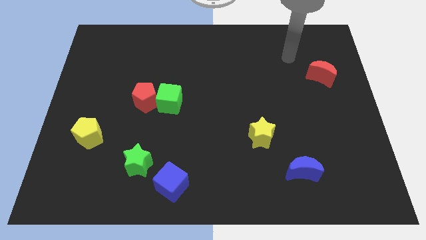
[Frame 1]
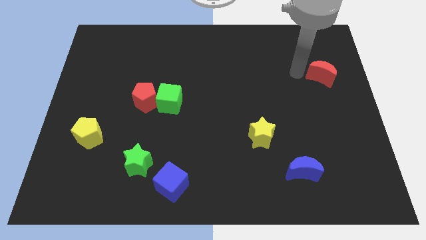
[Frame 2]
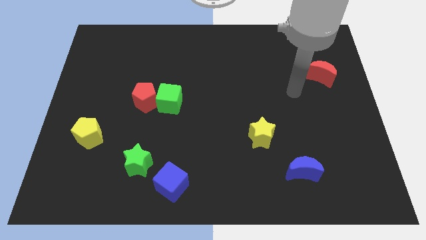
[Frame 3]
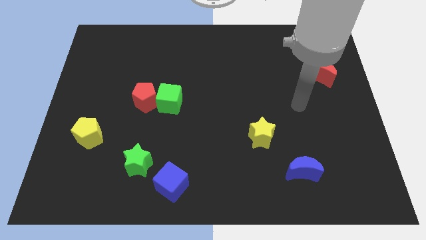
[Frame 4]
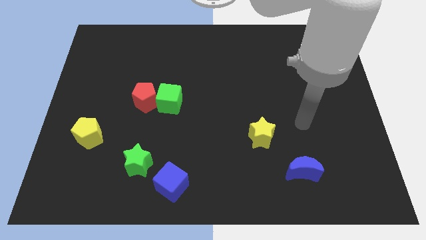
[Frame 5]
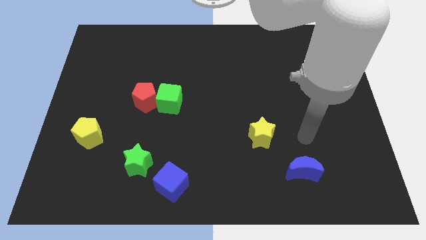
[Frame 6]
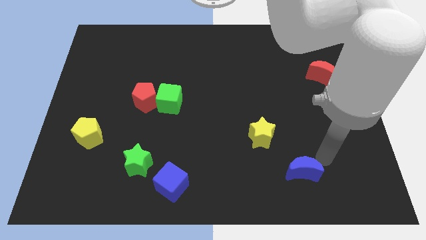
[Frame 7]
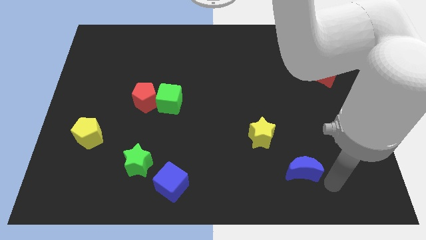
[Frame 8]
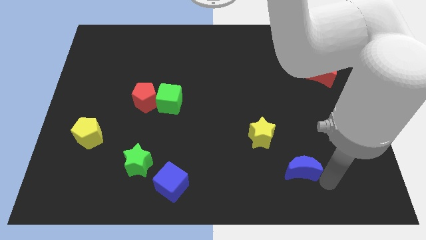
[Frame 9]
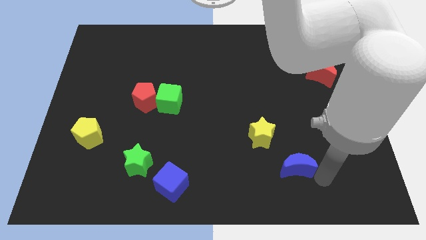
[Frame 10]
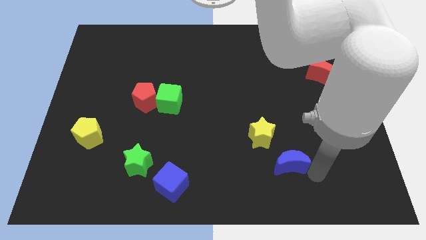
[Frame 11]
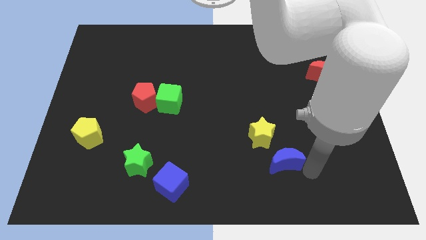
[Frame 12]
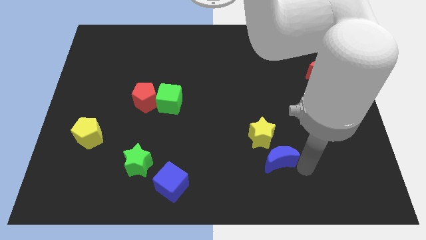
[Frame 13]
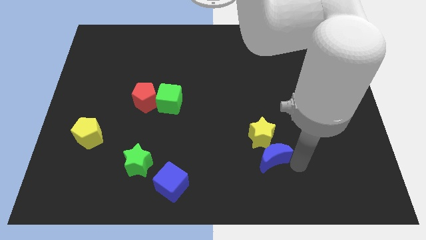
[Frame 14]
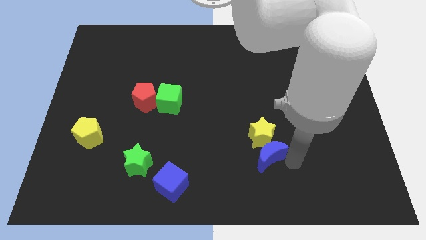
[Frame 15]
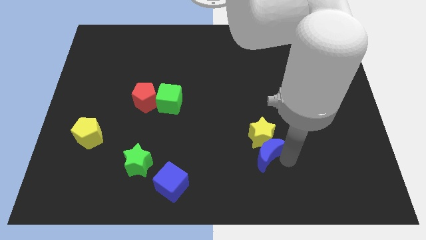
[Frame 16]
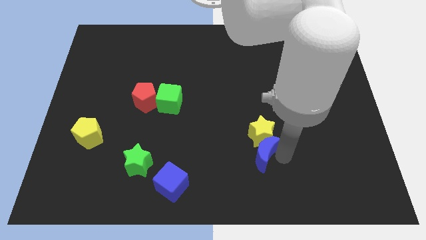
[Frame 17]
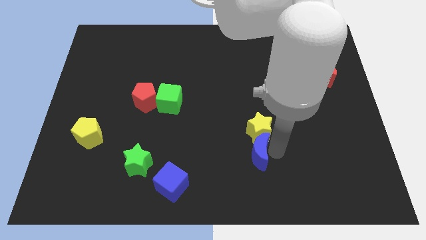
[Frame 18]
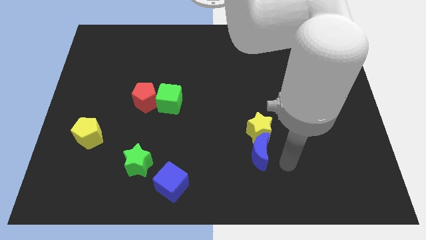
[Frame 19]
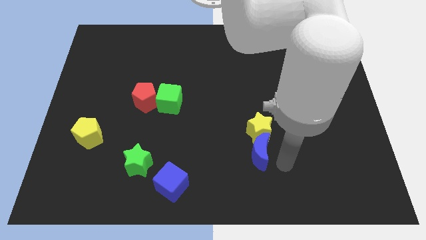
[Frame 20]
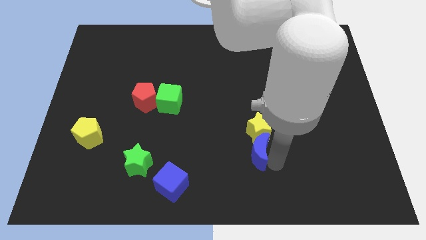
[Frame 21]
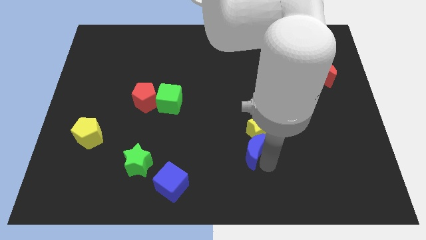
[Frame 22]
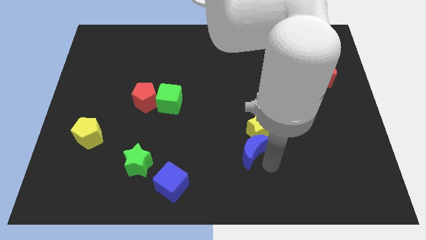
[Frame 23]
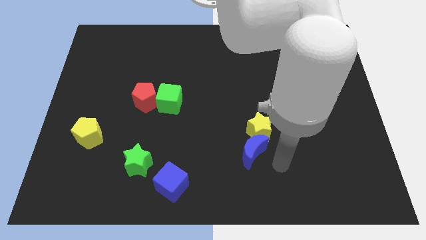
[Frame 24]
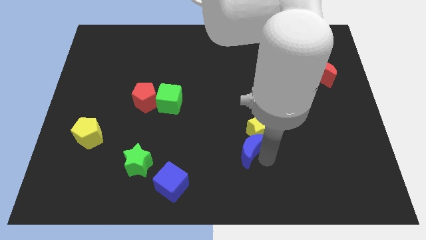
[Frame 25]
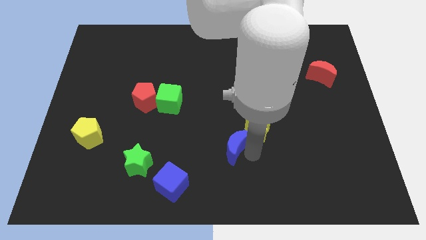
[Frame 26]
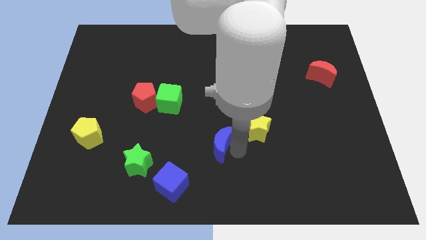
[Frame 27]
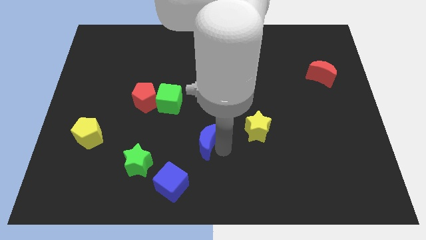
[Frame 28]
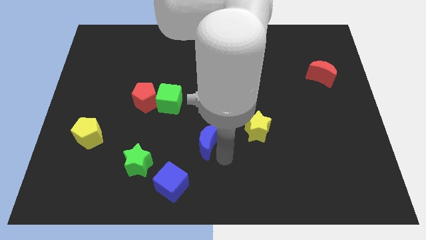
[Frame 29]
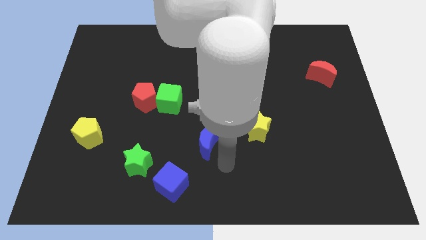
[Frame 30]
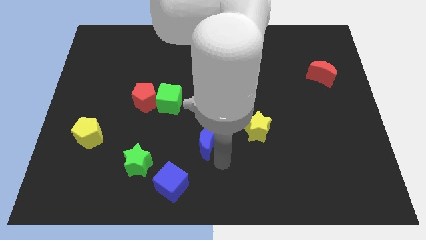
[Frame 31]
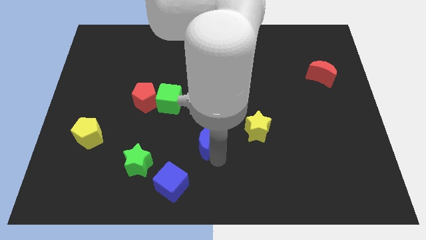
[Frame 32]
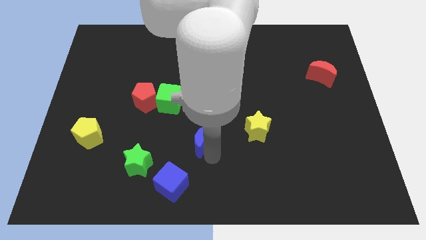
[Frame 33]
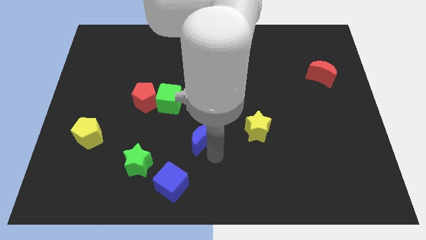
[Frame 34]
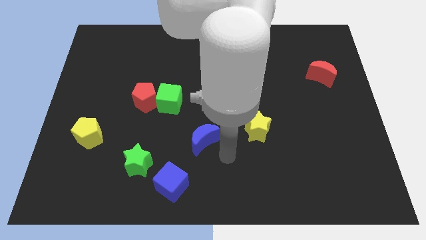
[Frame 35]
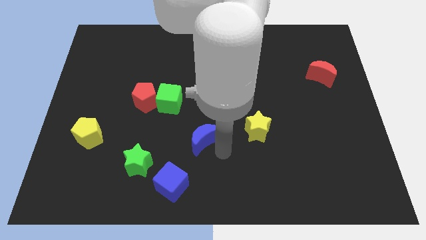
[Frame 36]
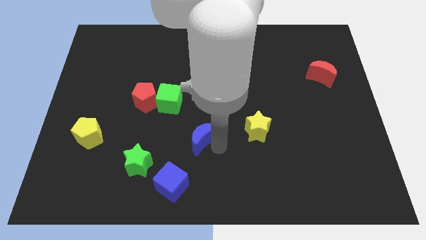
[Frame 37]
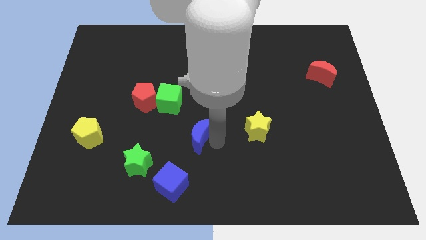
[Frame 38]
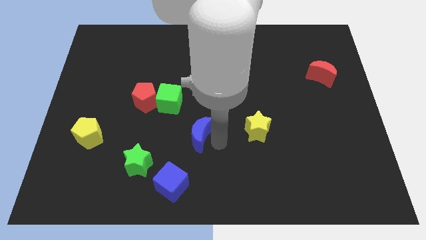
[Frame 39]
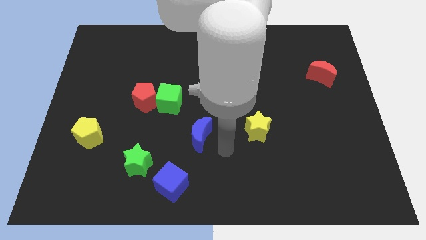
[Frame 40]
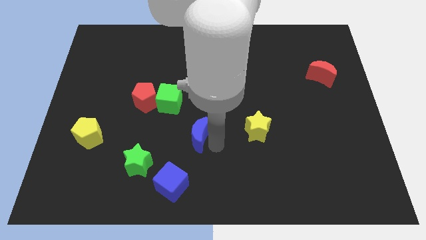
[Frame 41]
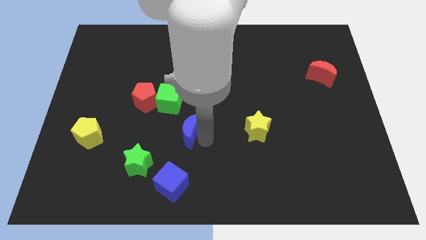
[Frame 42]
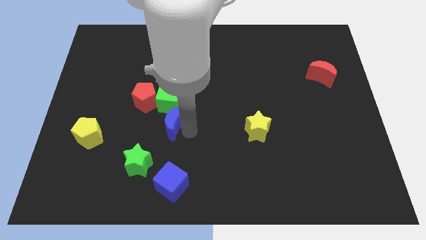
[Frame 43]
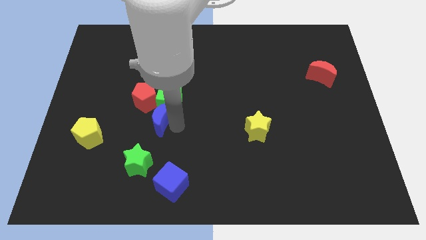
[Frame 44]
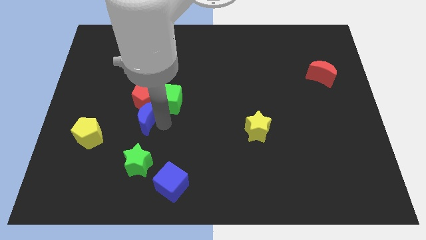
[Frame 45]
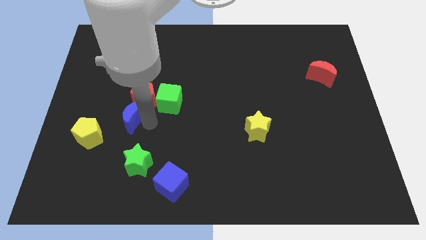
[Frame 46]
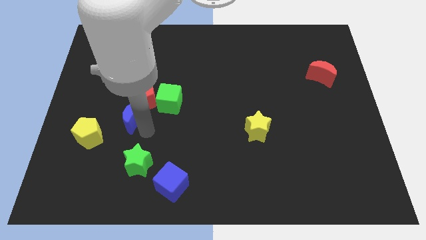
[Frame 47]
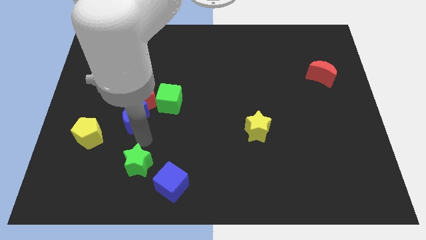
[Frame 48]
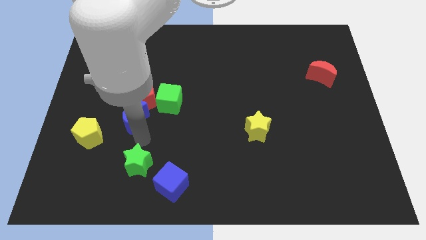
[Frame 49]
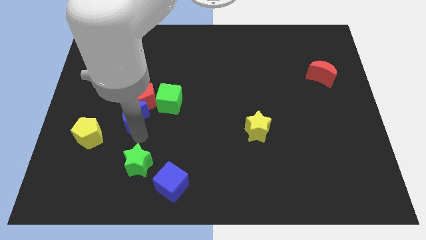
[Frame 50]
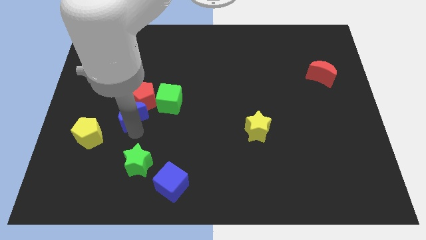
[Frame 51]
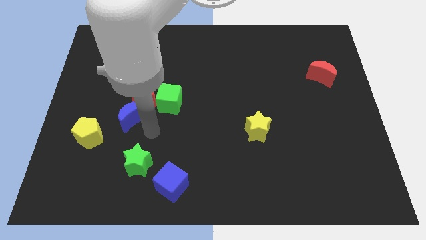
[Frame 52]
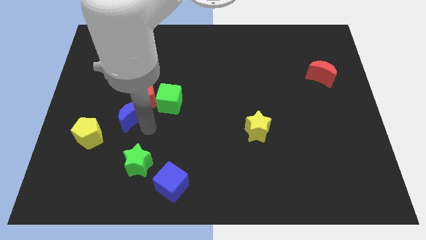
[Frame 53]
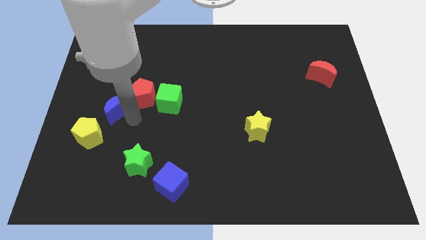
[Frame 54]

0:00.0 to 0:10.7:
move the blue moon to the left side of the red pentagon

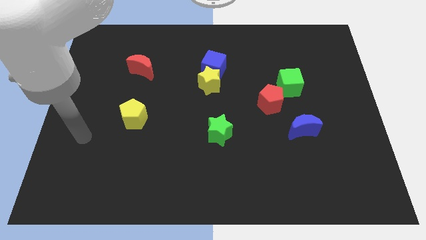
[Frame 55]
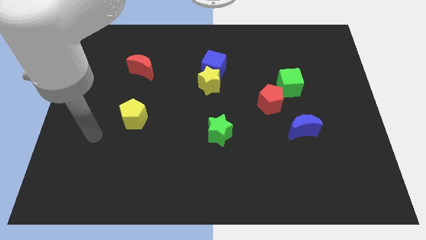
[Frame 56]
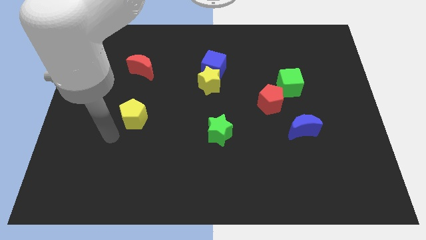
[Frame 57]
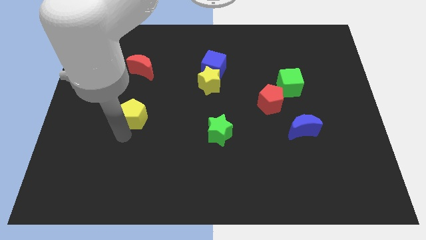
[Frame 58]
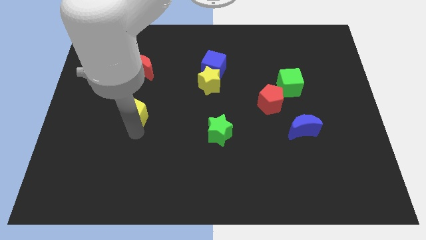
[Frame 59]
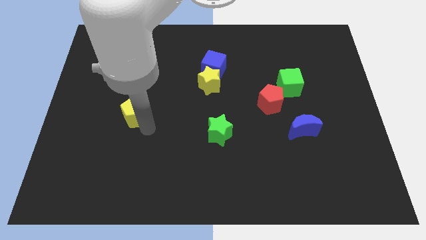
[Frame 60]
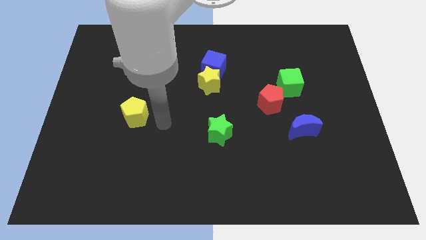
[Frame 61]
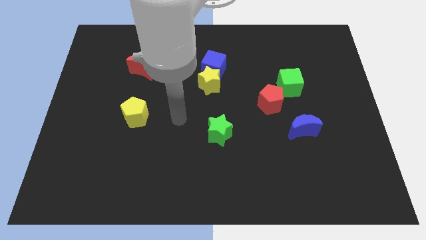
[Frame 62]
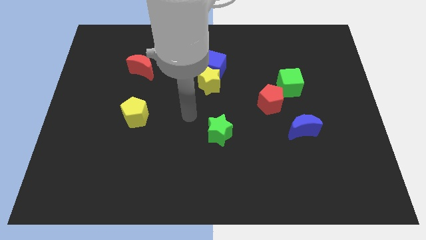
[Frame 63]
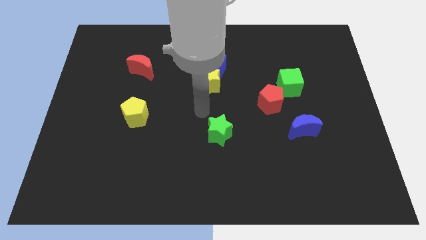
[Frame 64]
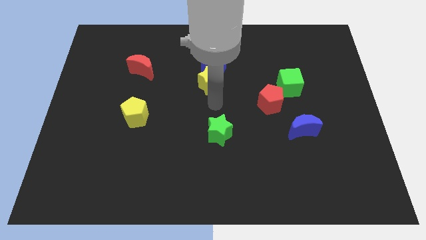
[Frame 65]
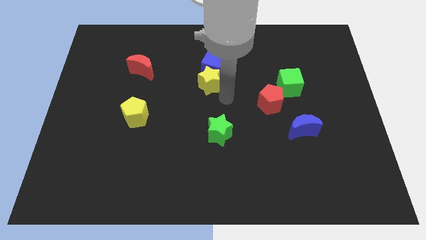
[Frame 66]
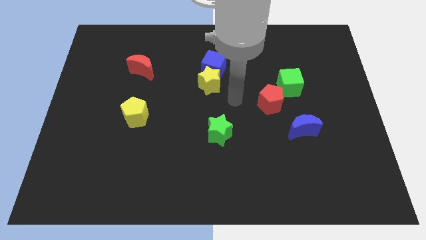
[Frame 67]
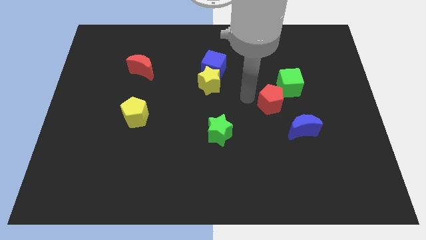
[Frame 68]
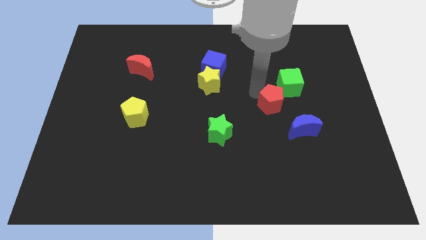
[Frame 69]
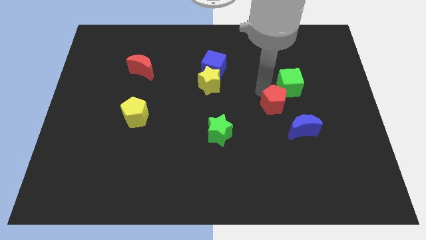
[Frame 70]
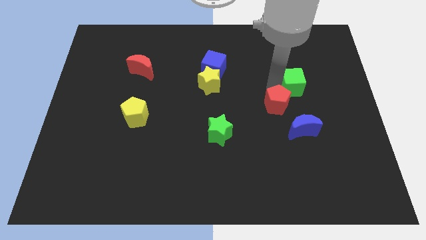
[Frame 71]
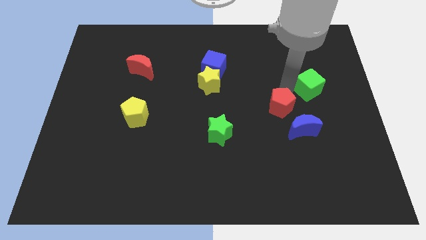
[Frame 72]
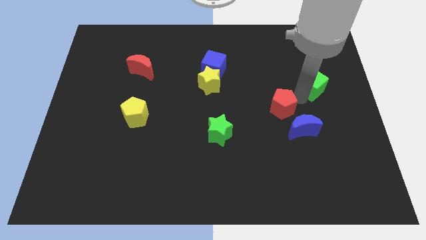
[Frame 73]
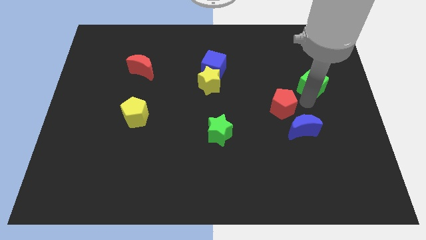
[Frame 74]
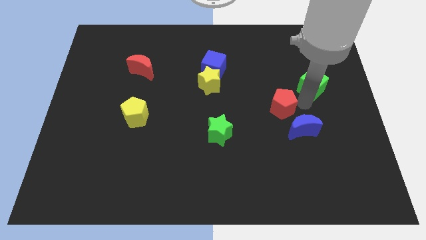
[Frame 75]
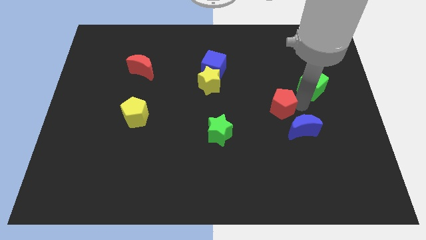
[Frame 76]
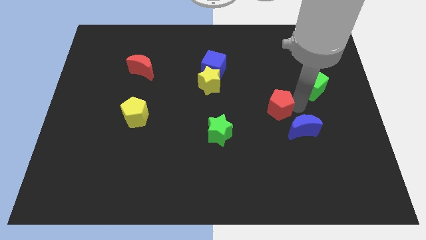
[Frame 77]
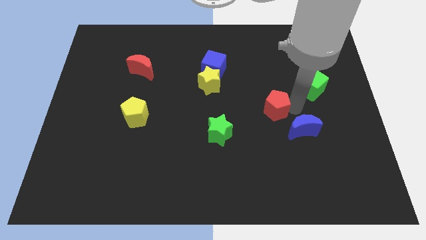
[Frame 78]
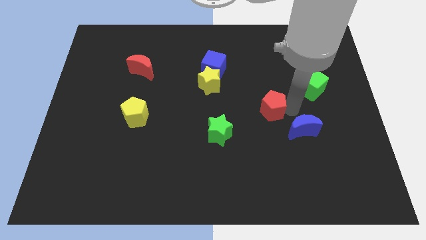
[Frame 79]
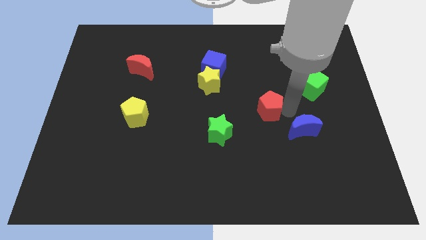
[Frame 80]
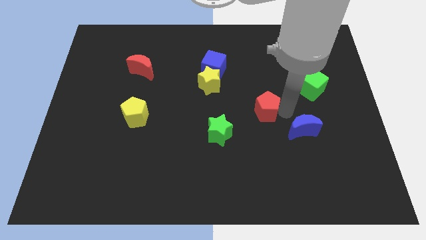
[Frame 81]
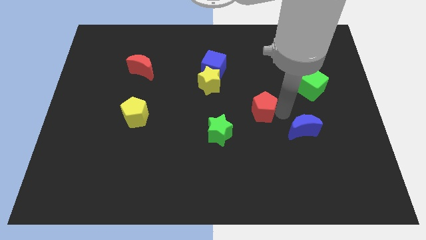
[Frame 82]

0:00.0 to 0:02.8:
push the red pentagon diagonally up and to the right of the green star
